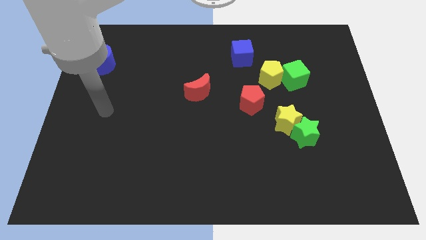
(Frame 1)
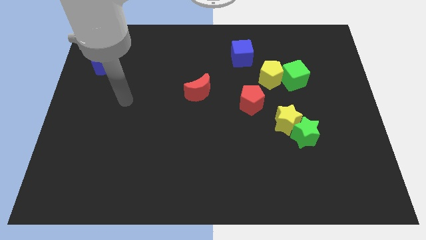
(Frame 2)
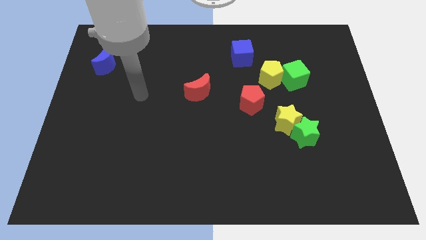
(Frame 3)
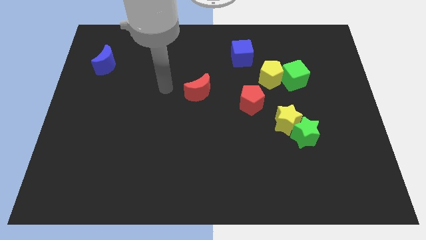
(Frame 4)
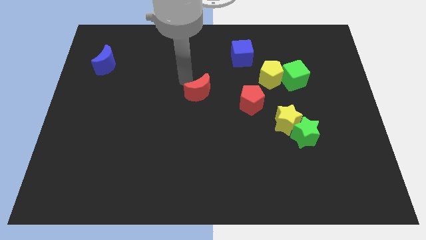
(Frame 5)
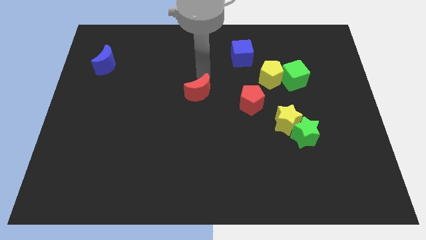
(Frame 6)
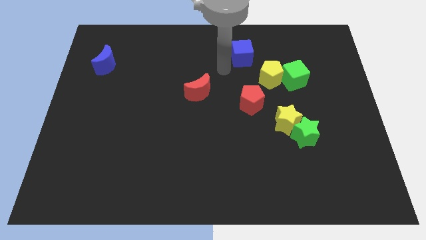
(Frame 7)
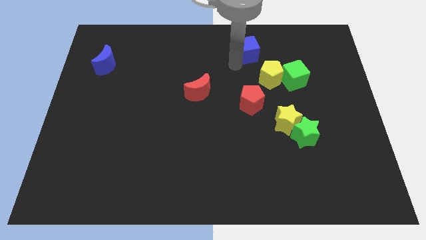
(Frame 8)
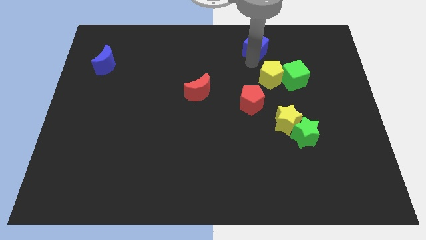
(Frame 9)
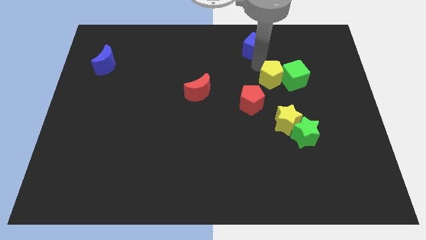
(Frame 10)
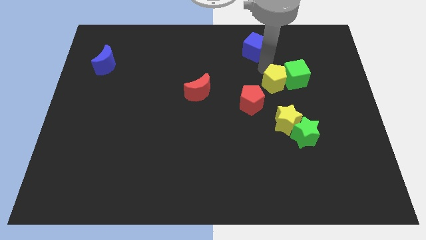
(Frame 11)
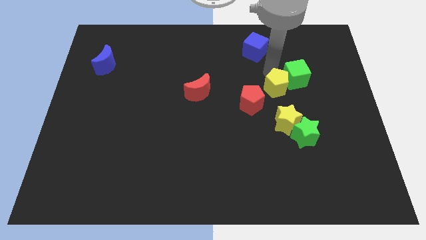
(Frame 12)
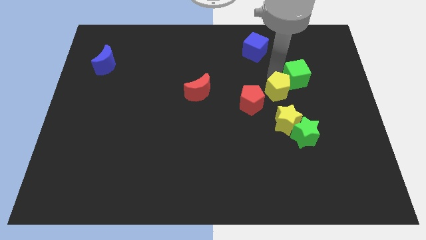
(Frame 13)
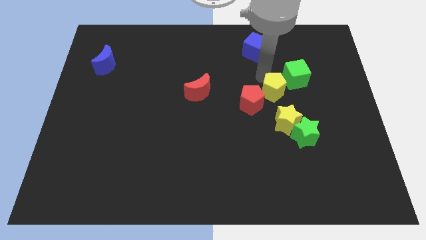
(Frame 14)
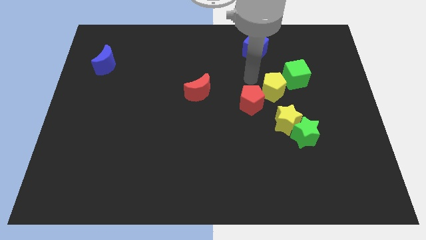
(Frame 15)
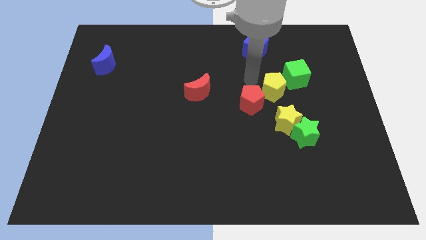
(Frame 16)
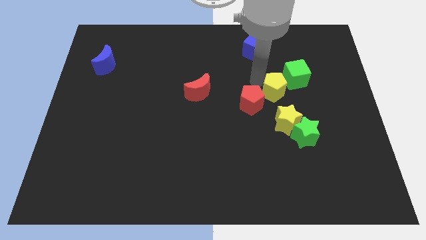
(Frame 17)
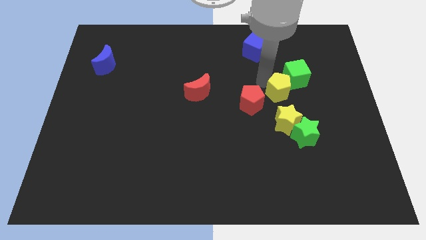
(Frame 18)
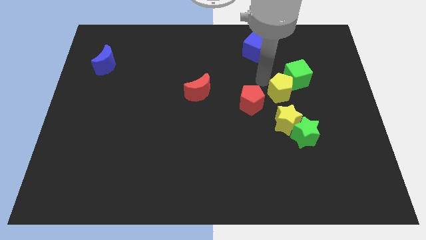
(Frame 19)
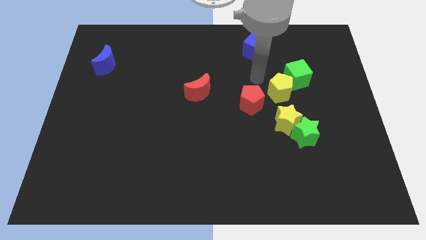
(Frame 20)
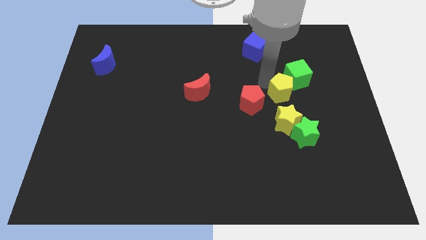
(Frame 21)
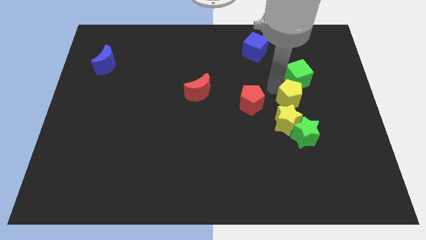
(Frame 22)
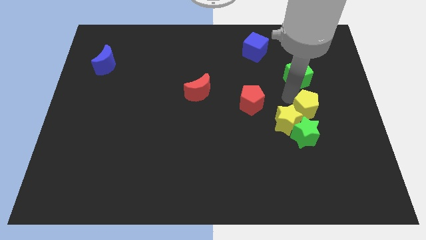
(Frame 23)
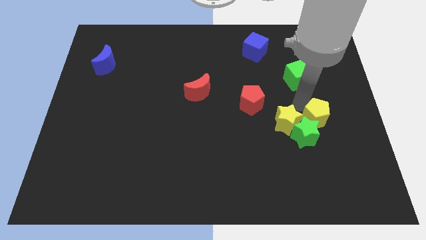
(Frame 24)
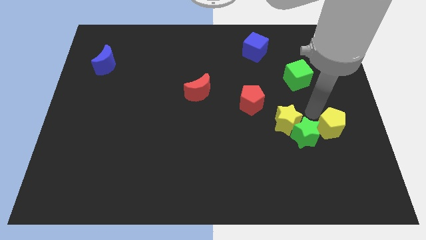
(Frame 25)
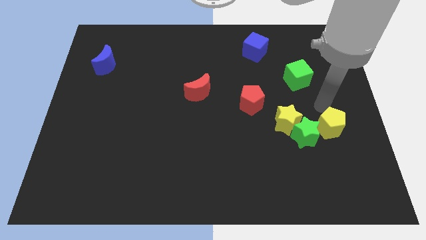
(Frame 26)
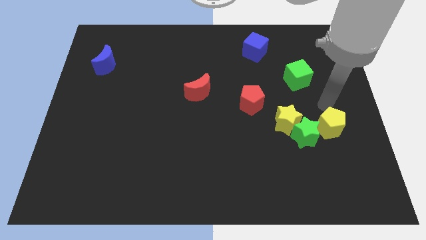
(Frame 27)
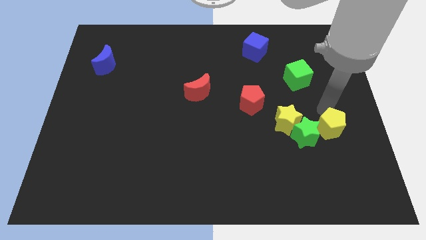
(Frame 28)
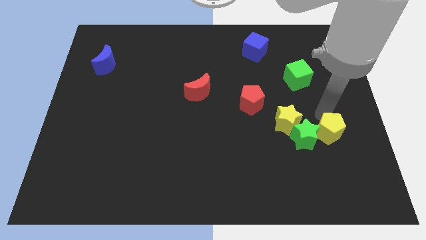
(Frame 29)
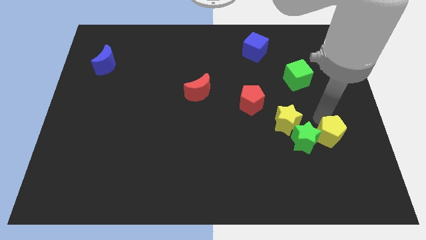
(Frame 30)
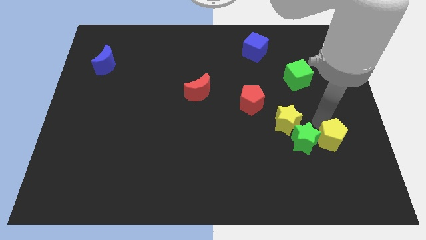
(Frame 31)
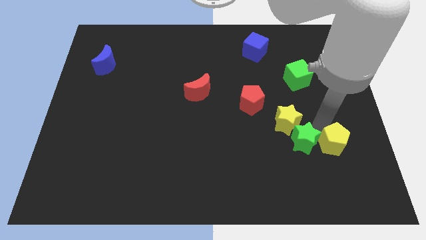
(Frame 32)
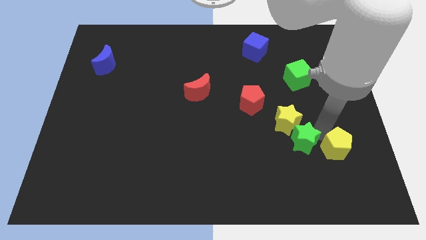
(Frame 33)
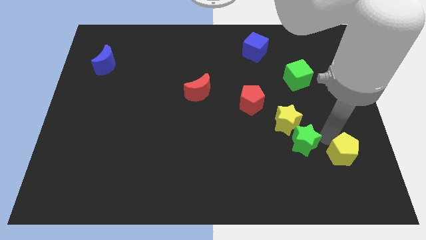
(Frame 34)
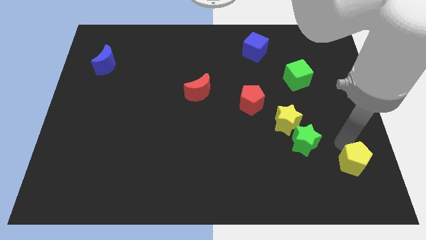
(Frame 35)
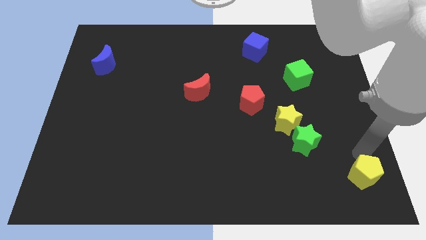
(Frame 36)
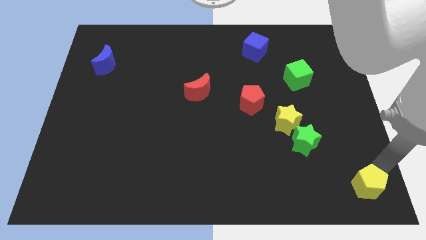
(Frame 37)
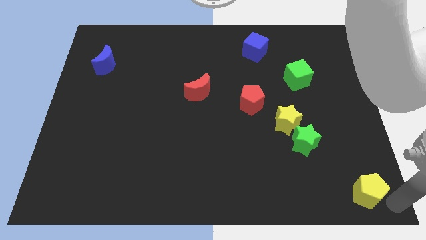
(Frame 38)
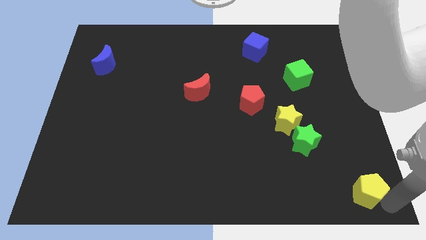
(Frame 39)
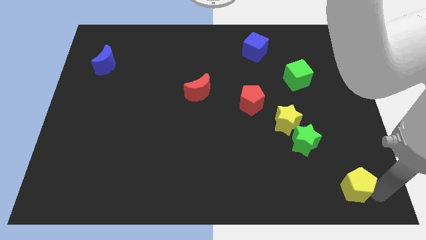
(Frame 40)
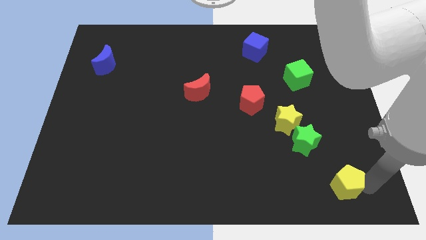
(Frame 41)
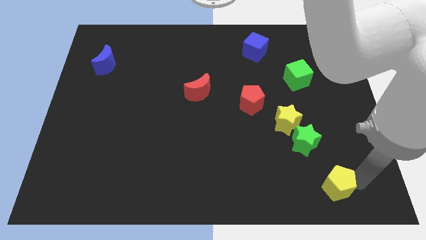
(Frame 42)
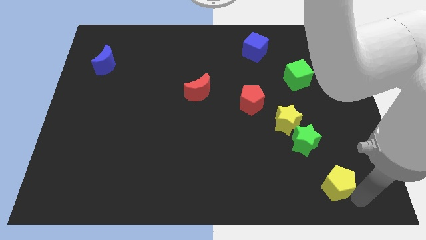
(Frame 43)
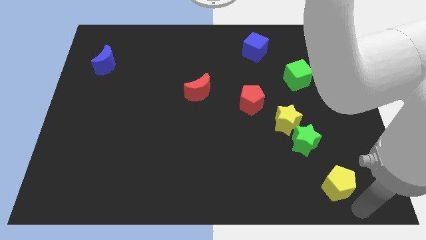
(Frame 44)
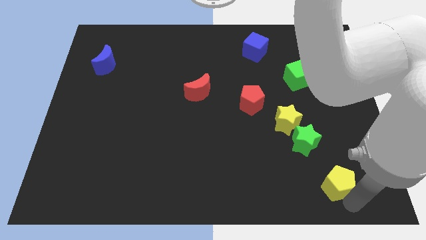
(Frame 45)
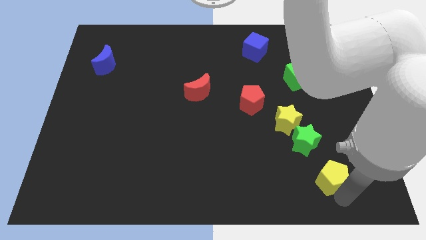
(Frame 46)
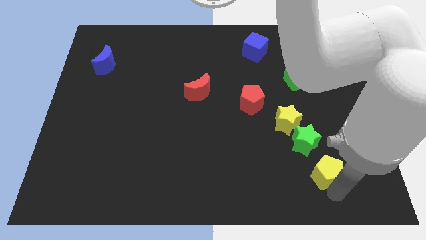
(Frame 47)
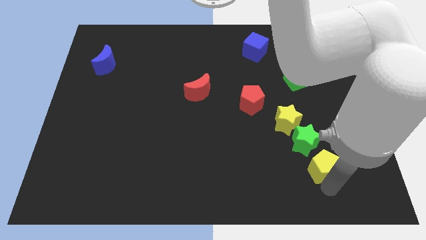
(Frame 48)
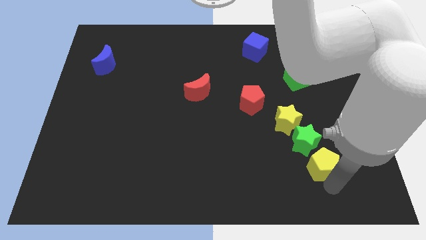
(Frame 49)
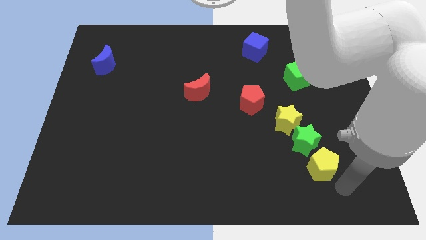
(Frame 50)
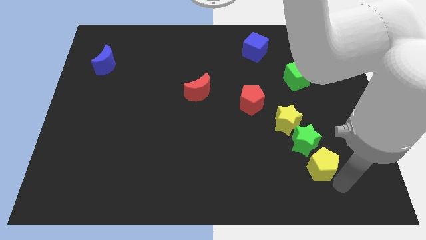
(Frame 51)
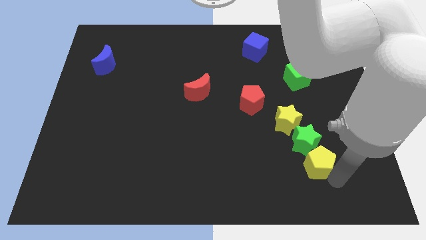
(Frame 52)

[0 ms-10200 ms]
slide the yellow pentagon to the bottom side of the yellow star

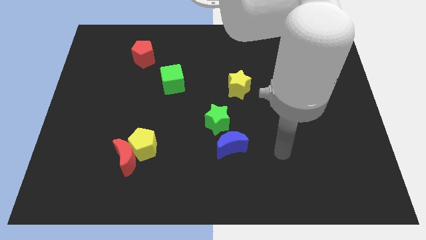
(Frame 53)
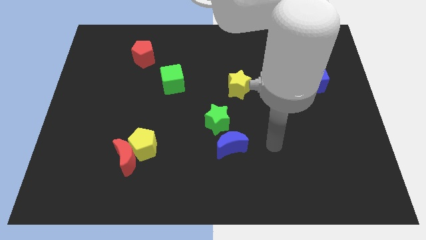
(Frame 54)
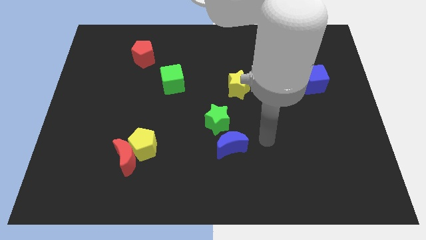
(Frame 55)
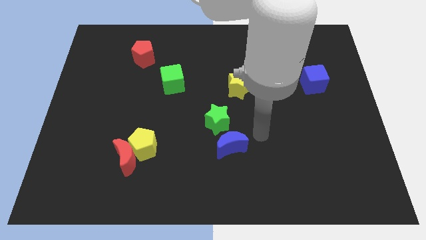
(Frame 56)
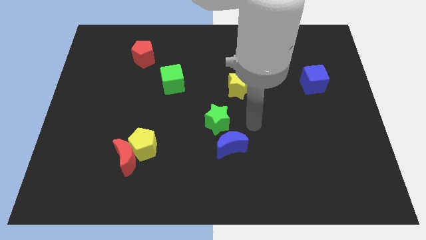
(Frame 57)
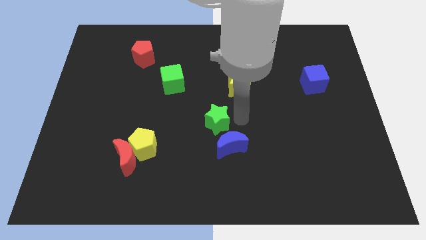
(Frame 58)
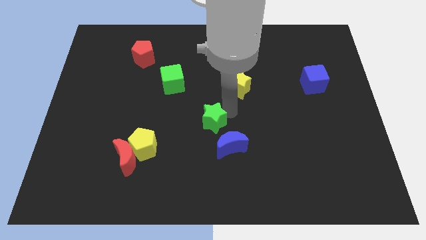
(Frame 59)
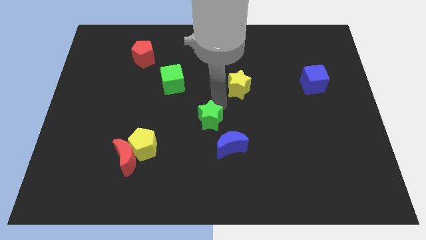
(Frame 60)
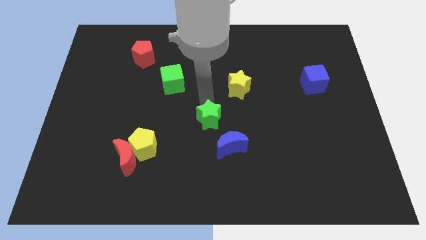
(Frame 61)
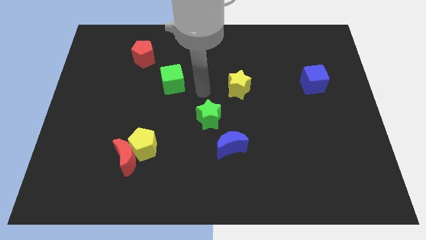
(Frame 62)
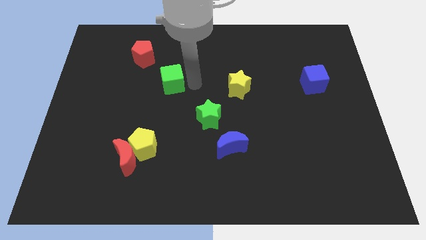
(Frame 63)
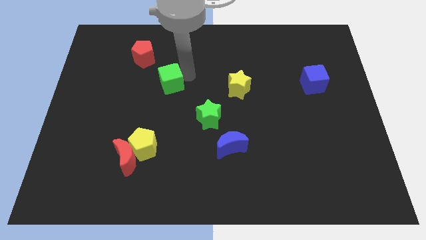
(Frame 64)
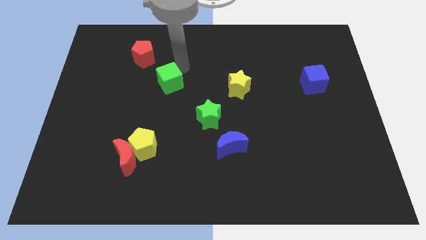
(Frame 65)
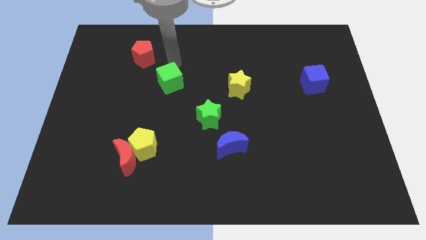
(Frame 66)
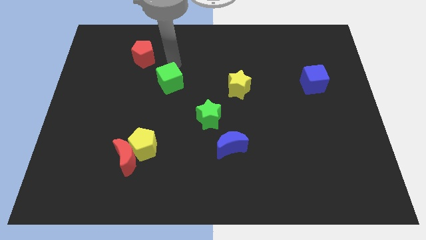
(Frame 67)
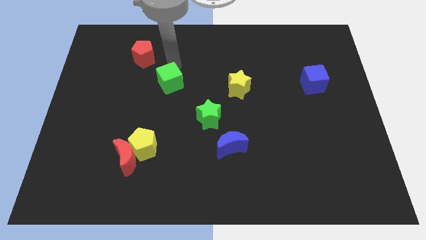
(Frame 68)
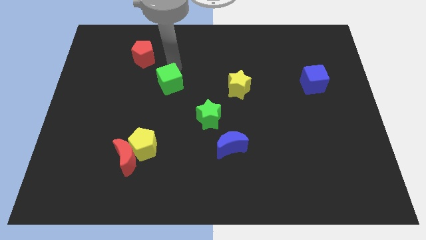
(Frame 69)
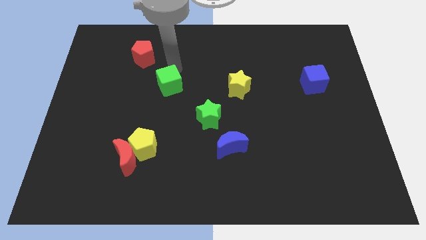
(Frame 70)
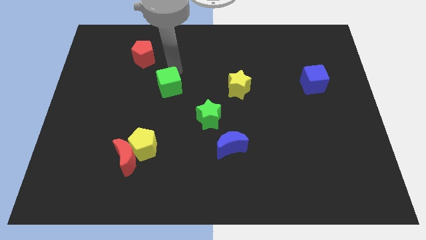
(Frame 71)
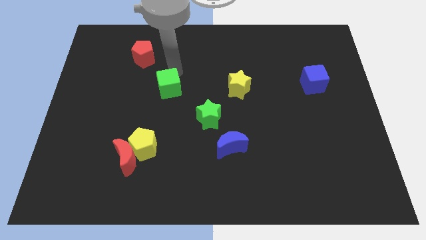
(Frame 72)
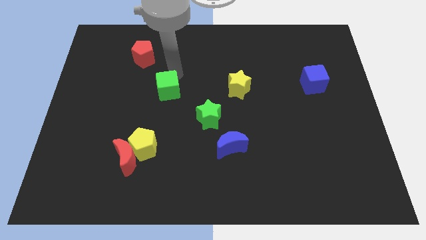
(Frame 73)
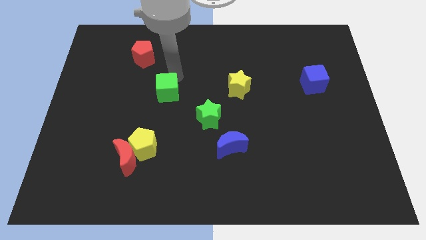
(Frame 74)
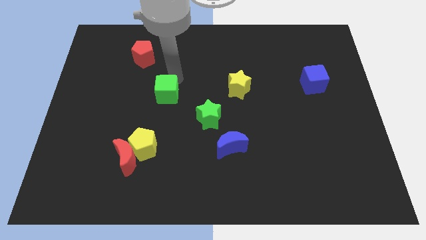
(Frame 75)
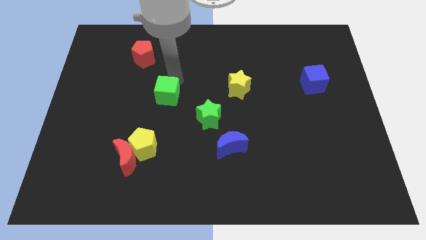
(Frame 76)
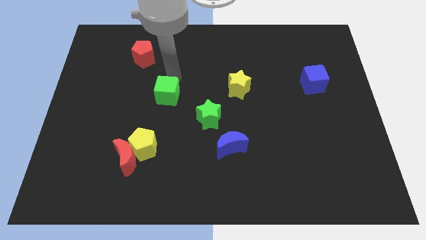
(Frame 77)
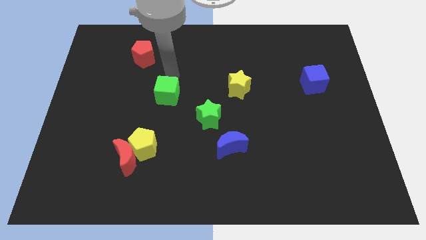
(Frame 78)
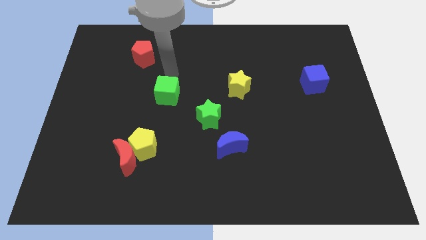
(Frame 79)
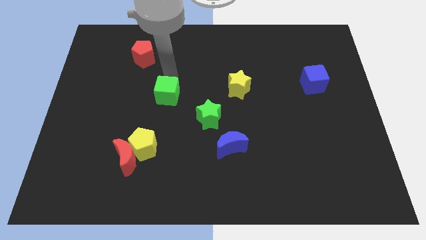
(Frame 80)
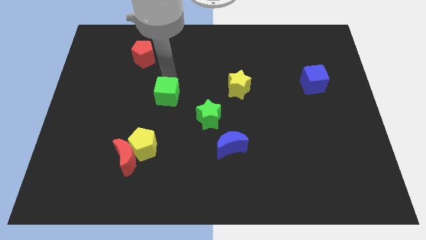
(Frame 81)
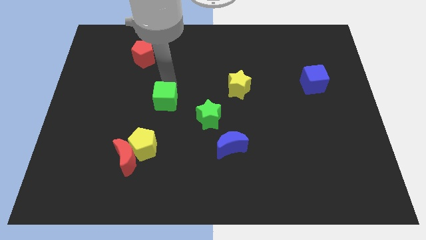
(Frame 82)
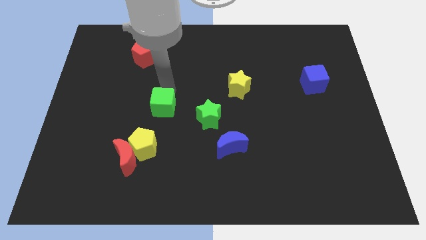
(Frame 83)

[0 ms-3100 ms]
slide the green cube just left of the green star
